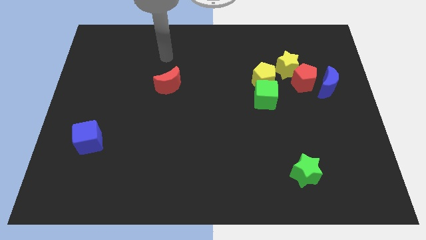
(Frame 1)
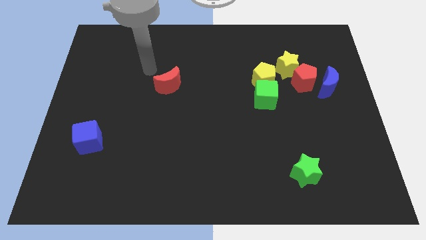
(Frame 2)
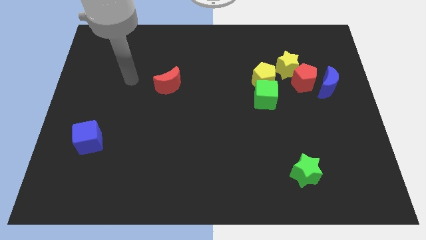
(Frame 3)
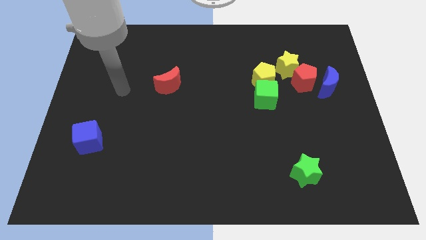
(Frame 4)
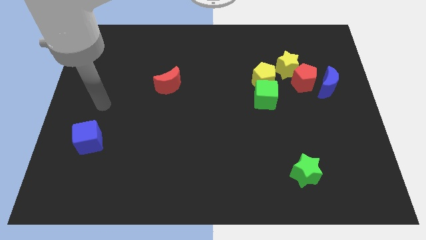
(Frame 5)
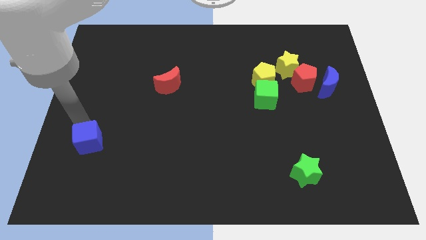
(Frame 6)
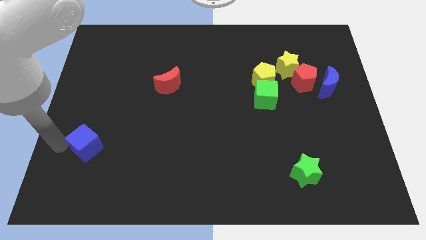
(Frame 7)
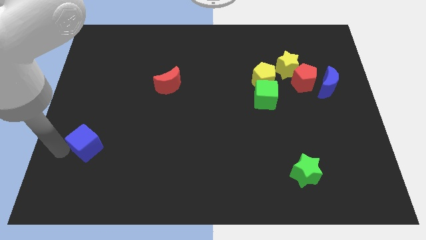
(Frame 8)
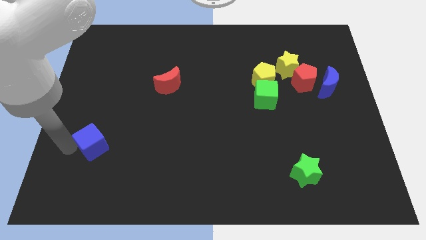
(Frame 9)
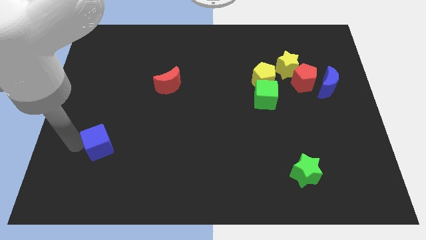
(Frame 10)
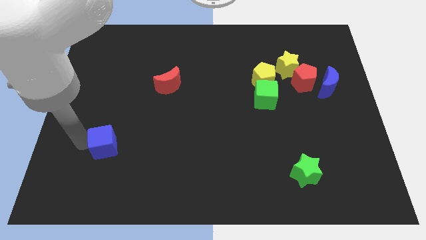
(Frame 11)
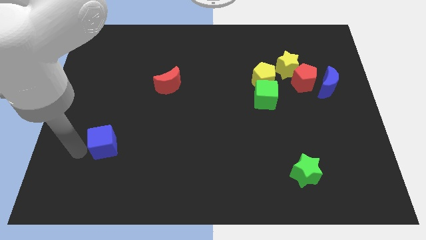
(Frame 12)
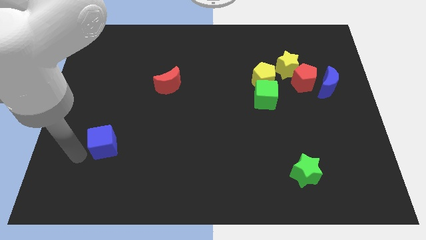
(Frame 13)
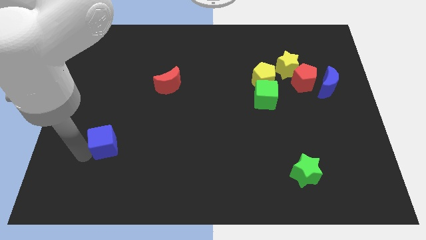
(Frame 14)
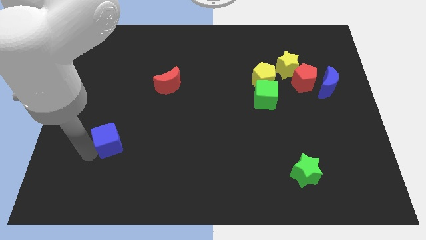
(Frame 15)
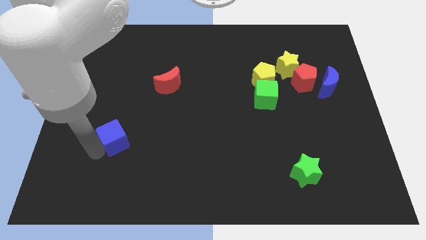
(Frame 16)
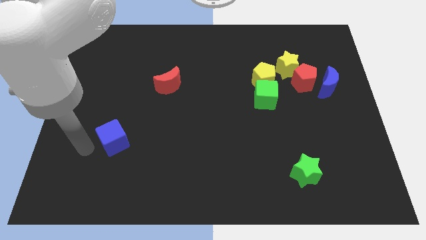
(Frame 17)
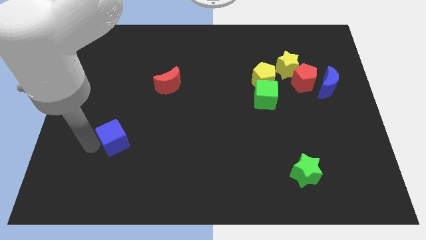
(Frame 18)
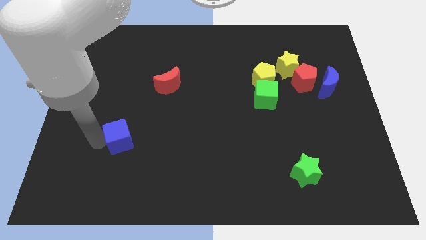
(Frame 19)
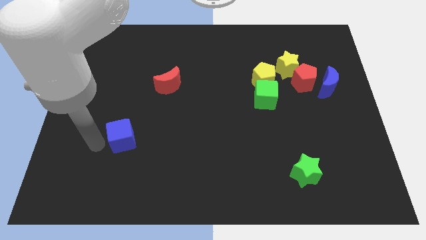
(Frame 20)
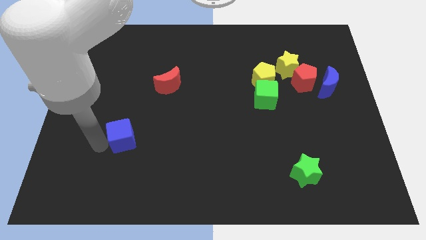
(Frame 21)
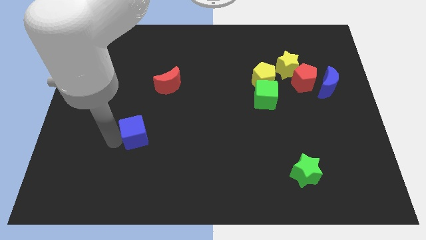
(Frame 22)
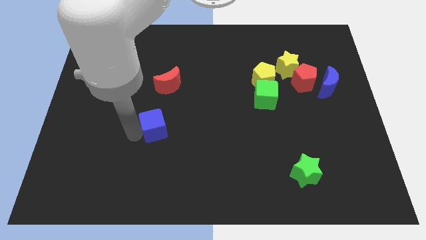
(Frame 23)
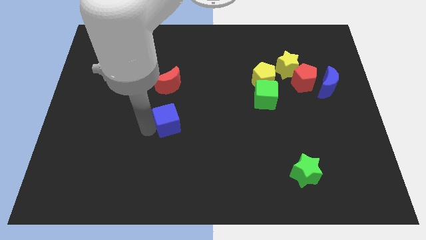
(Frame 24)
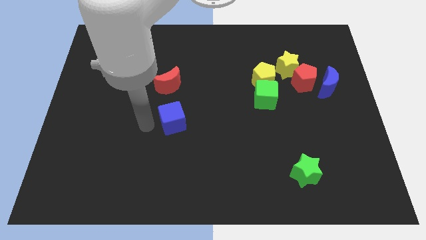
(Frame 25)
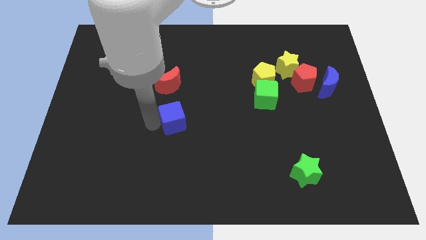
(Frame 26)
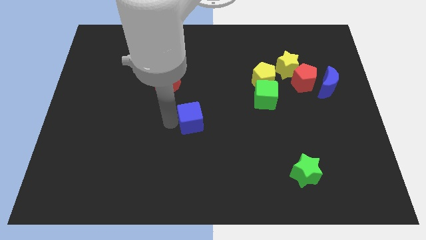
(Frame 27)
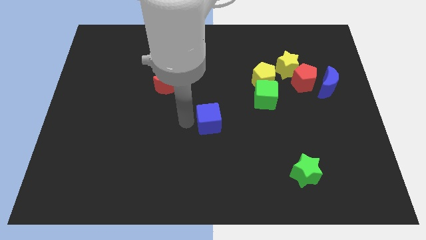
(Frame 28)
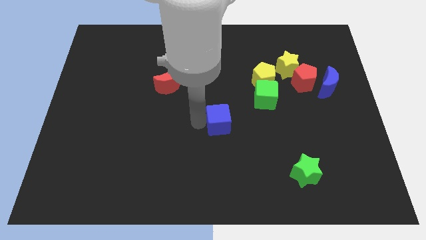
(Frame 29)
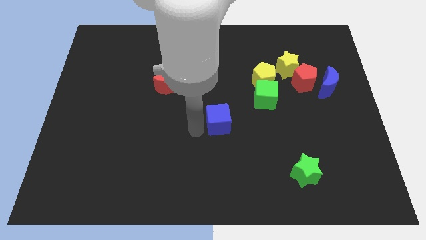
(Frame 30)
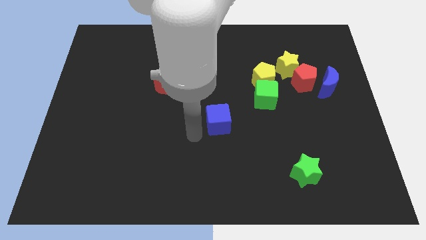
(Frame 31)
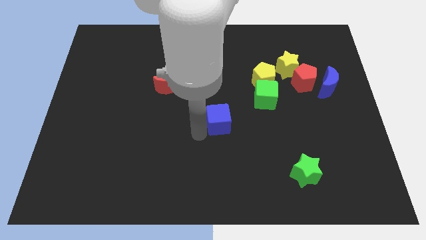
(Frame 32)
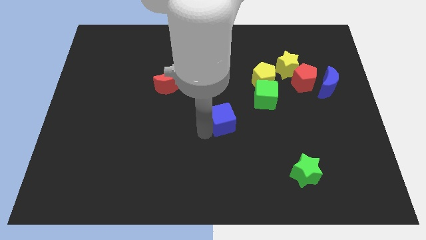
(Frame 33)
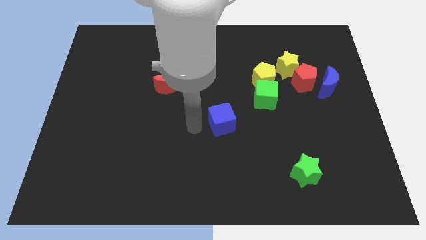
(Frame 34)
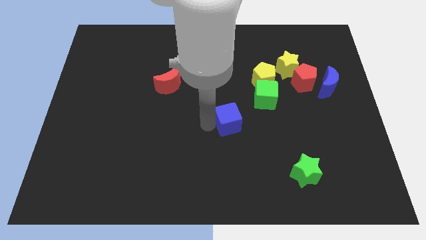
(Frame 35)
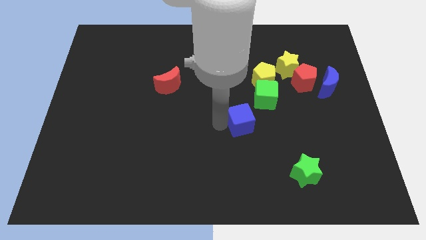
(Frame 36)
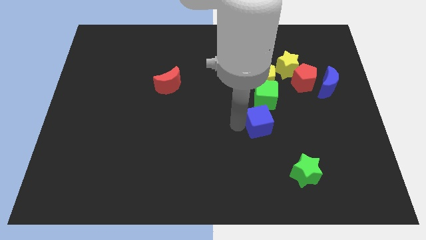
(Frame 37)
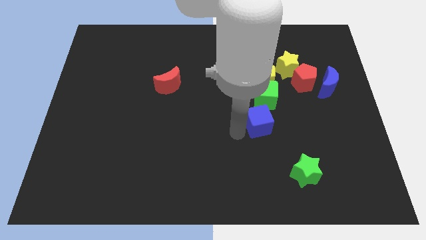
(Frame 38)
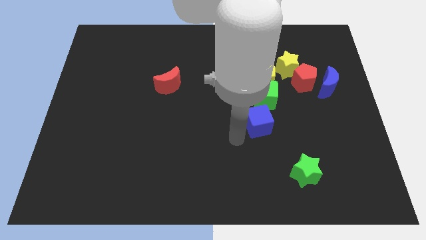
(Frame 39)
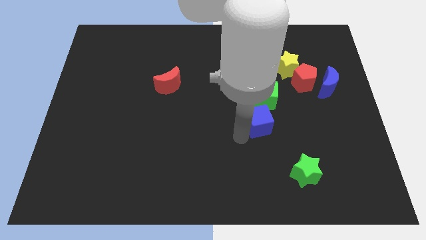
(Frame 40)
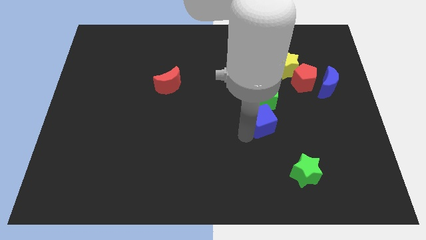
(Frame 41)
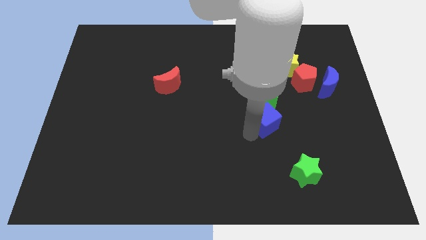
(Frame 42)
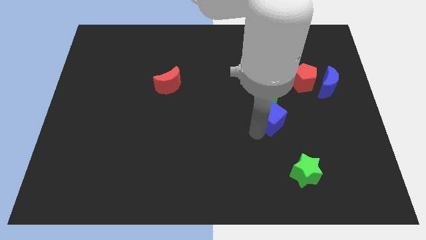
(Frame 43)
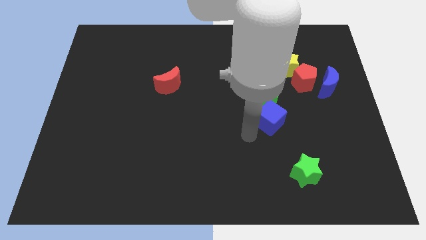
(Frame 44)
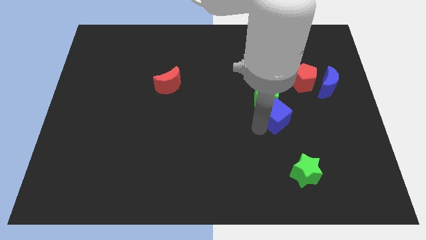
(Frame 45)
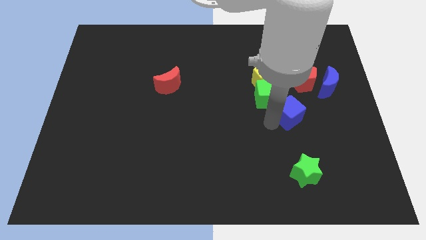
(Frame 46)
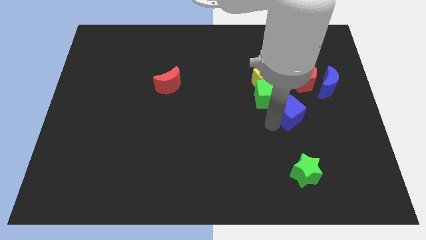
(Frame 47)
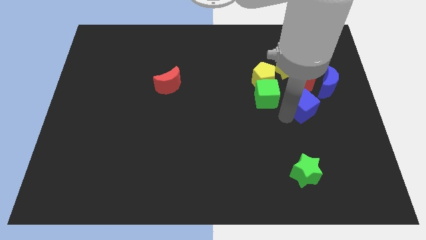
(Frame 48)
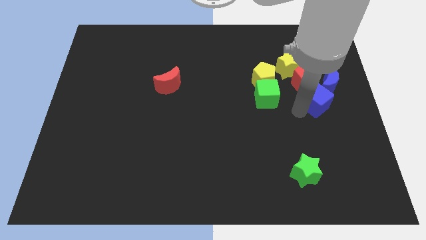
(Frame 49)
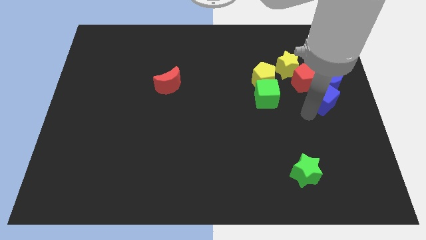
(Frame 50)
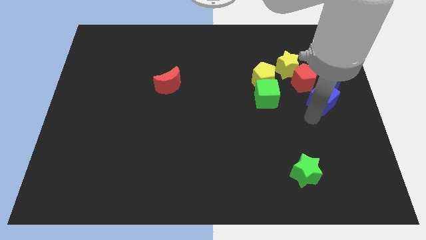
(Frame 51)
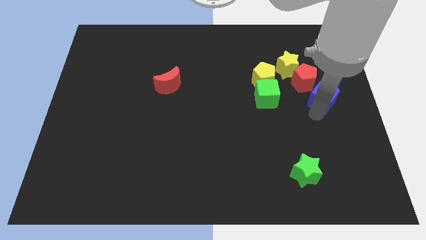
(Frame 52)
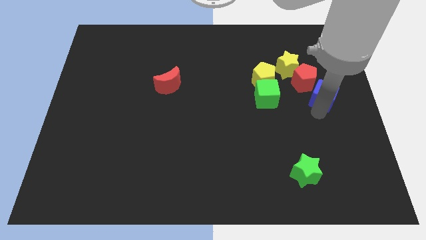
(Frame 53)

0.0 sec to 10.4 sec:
move the blue cube close to the blue moon

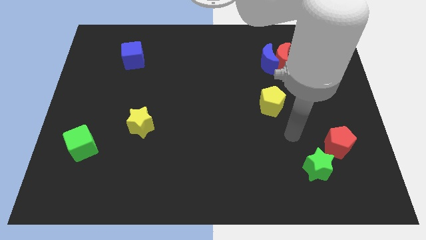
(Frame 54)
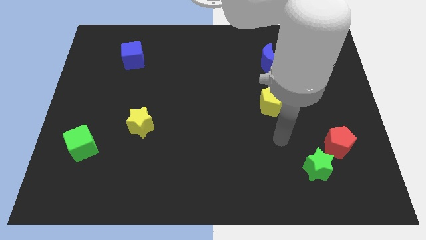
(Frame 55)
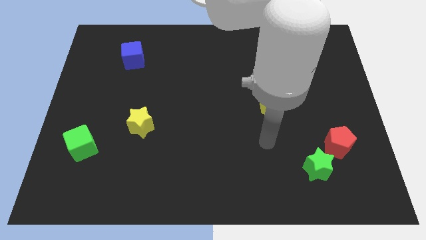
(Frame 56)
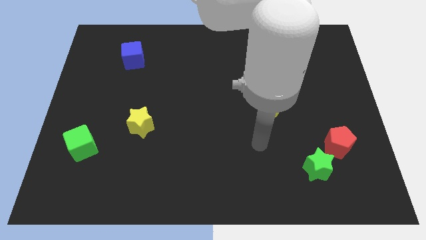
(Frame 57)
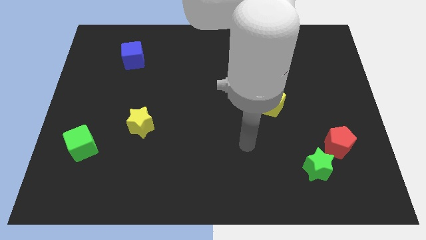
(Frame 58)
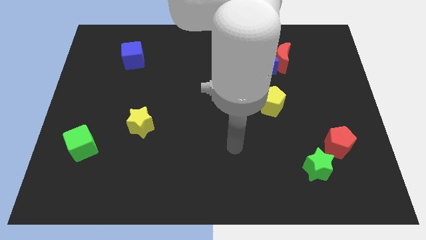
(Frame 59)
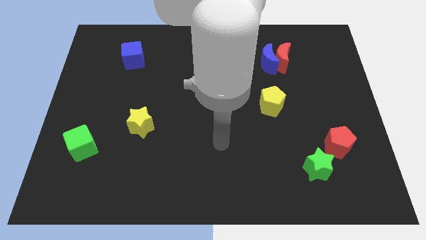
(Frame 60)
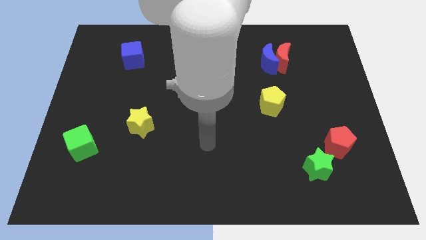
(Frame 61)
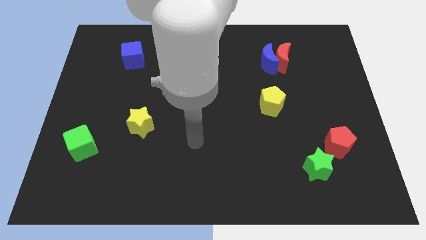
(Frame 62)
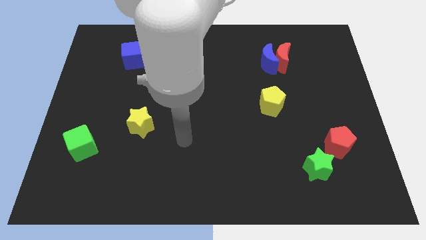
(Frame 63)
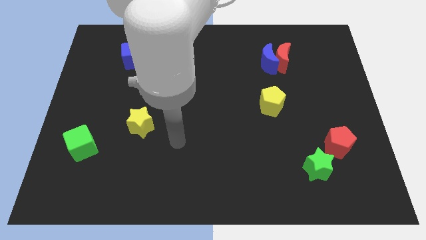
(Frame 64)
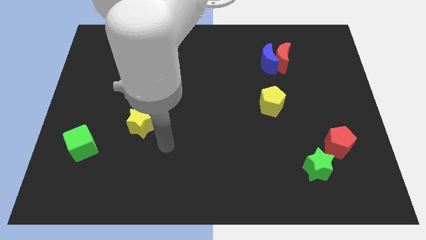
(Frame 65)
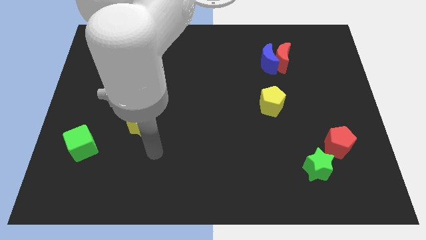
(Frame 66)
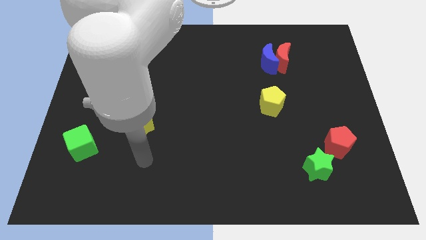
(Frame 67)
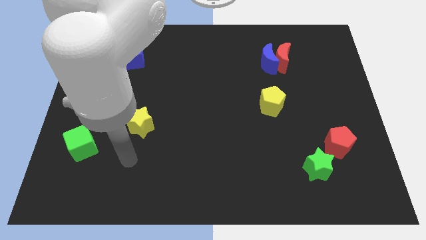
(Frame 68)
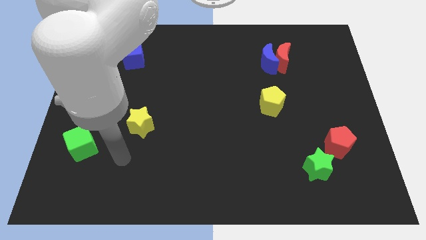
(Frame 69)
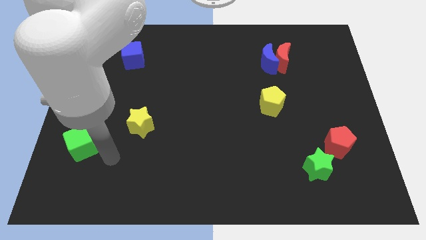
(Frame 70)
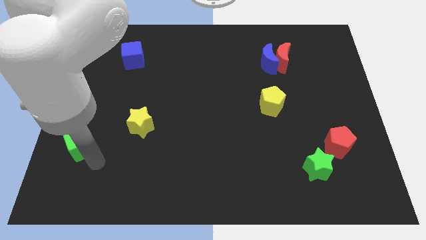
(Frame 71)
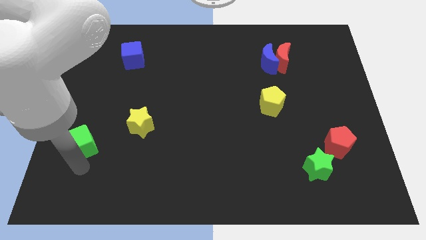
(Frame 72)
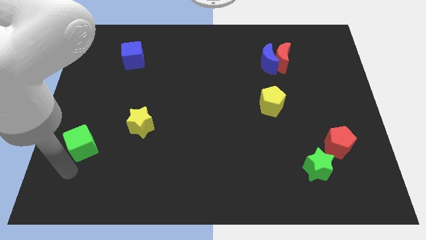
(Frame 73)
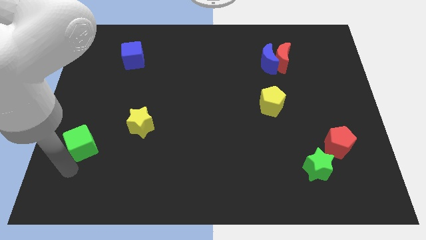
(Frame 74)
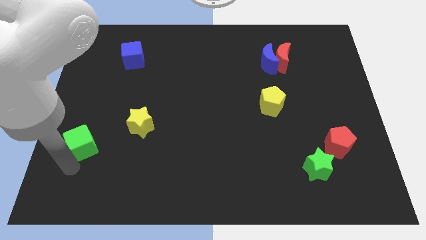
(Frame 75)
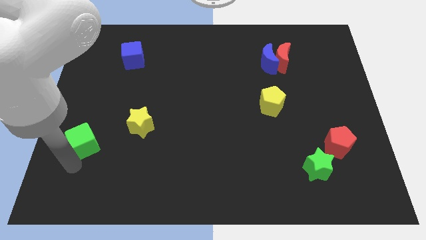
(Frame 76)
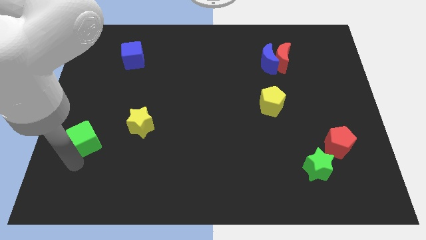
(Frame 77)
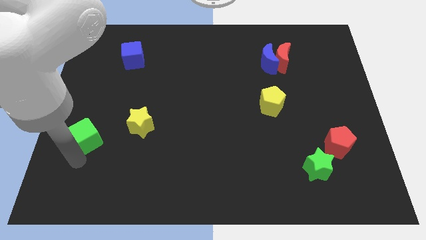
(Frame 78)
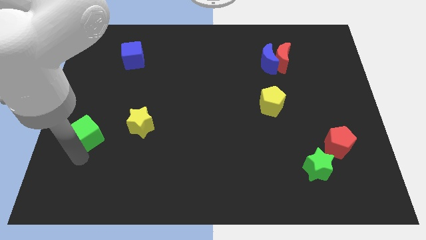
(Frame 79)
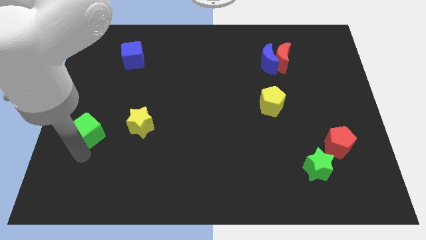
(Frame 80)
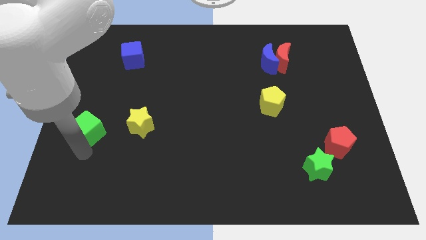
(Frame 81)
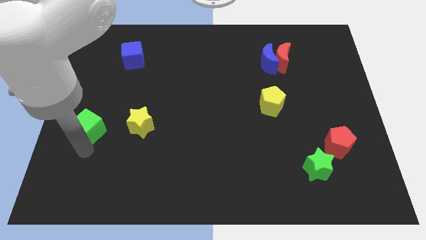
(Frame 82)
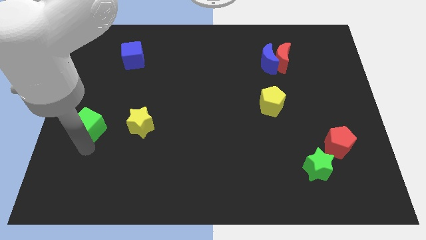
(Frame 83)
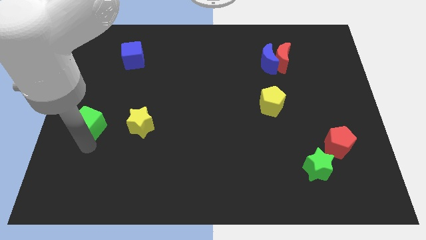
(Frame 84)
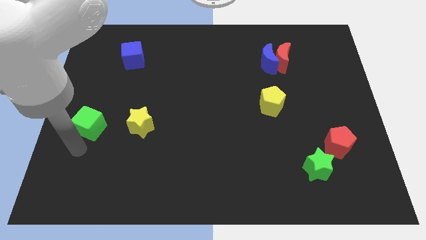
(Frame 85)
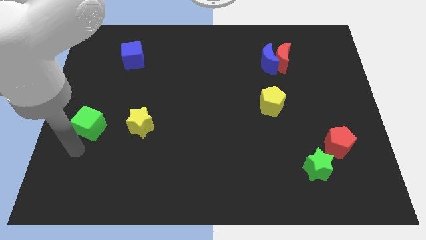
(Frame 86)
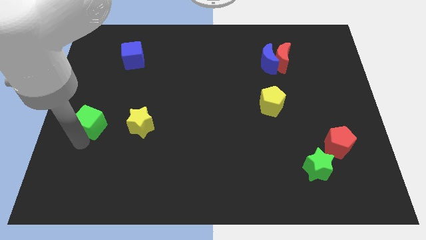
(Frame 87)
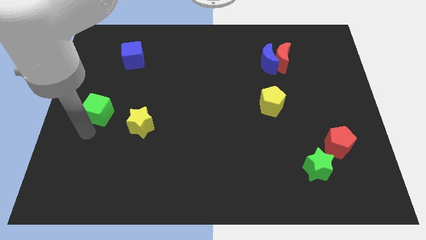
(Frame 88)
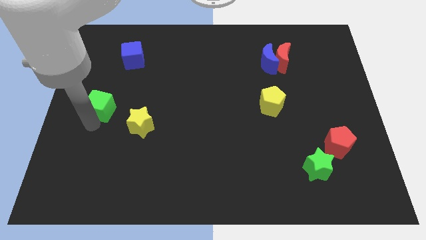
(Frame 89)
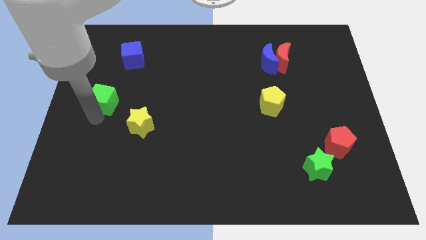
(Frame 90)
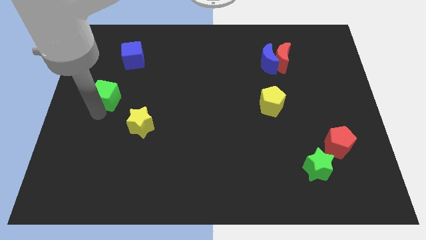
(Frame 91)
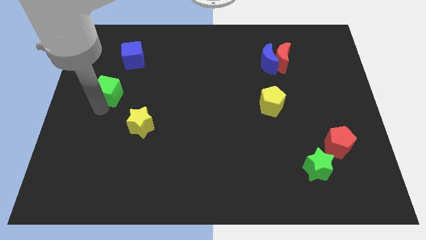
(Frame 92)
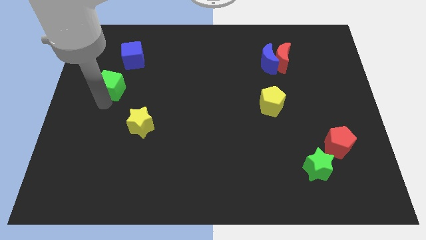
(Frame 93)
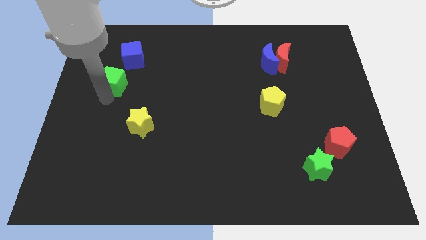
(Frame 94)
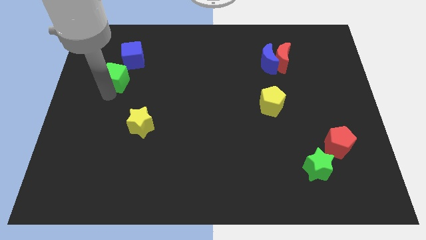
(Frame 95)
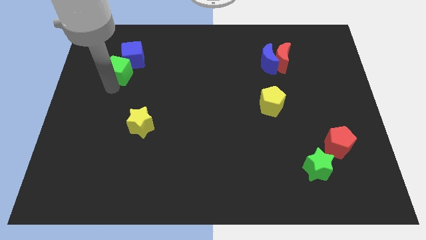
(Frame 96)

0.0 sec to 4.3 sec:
put the green cube next to the blue cube
